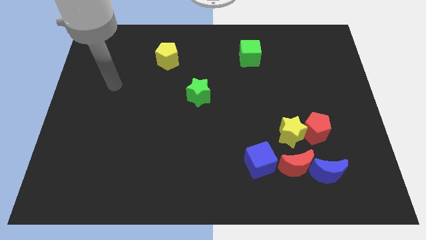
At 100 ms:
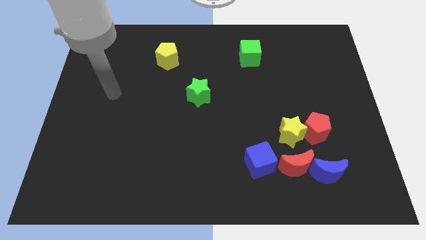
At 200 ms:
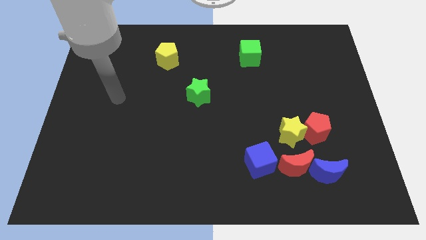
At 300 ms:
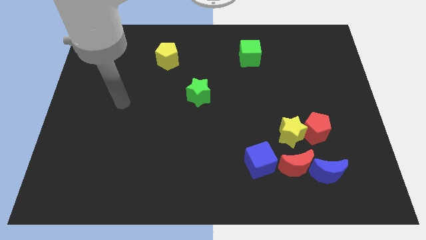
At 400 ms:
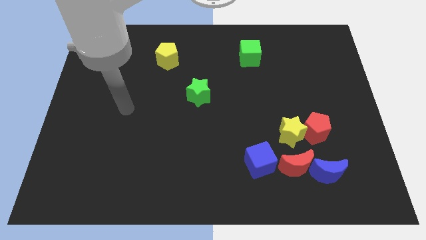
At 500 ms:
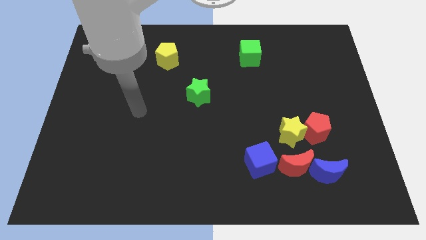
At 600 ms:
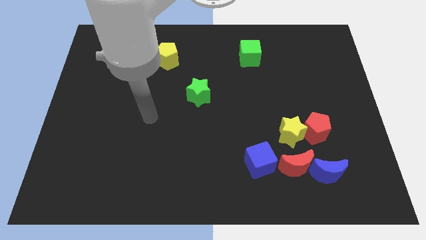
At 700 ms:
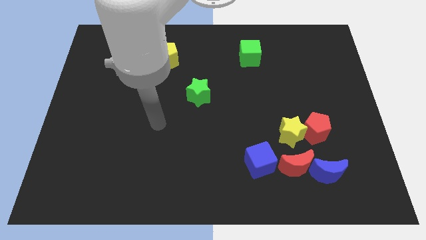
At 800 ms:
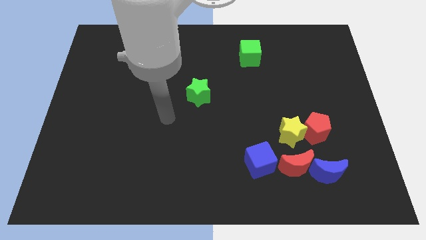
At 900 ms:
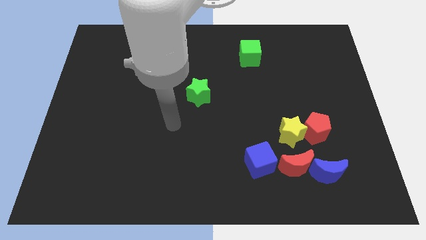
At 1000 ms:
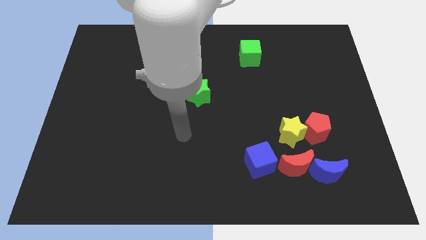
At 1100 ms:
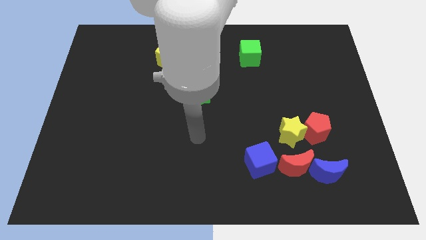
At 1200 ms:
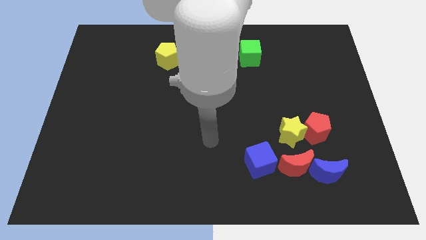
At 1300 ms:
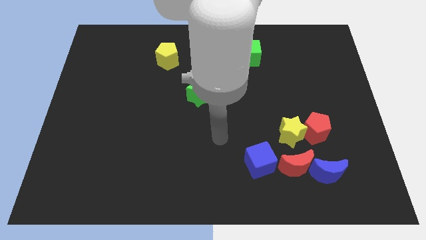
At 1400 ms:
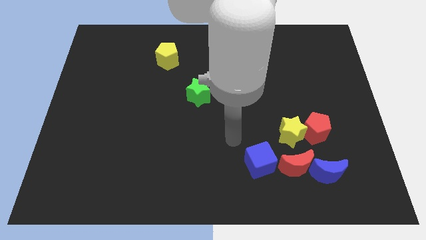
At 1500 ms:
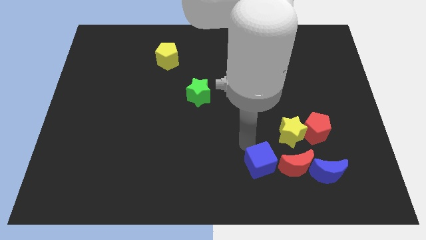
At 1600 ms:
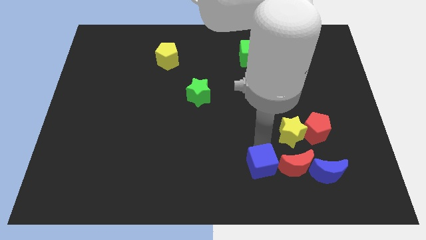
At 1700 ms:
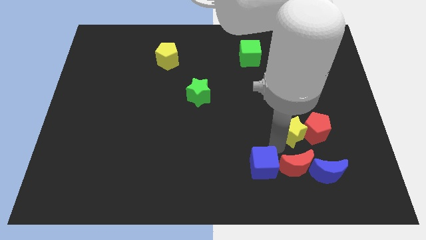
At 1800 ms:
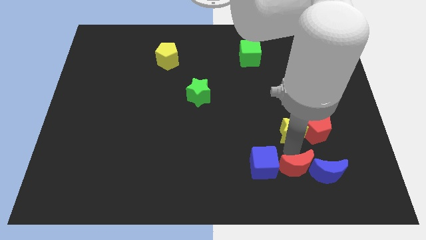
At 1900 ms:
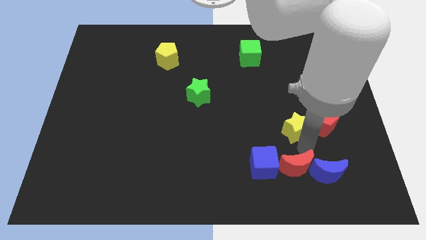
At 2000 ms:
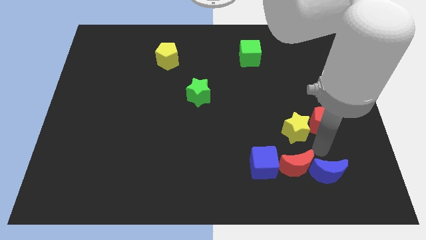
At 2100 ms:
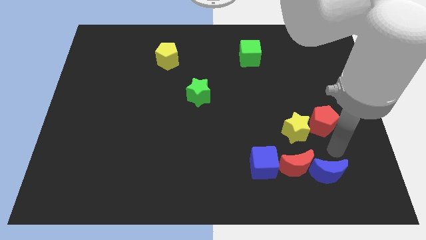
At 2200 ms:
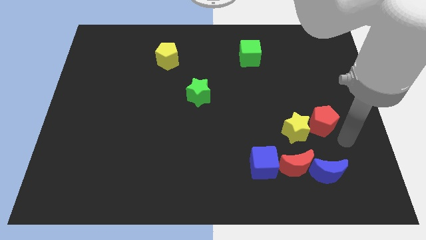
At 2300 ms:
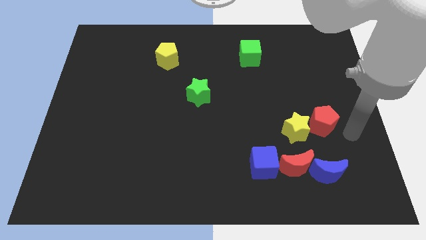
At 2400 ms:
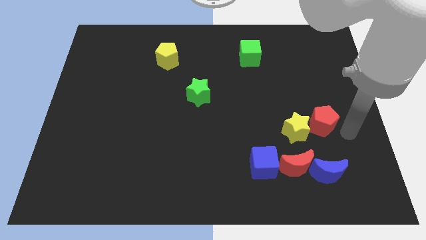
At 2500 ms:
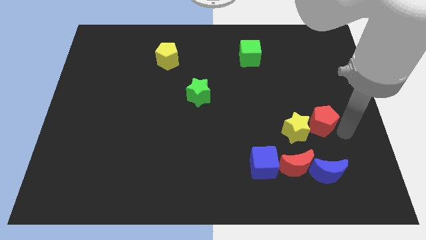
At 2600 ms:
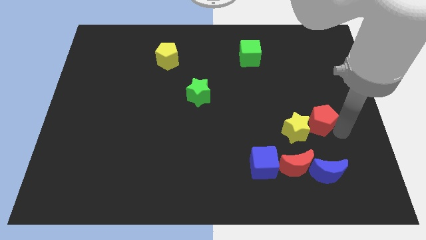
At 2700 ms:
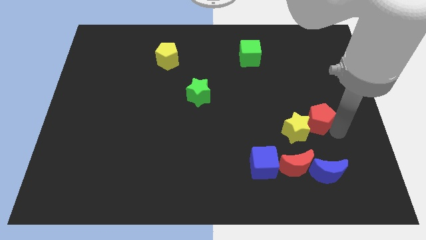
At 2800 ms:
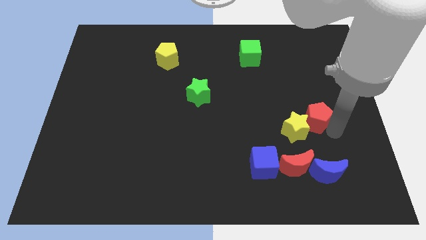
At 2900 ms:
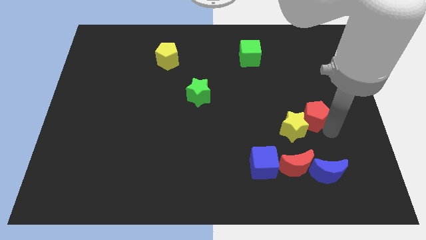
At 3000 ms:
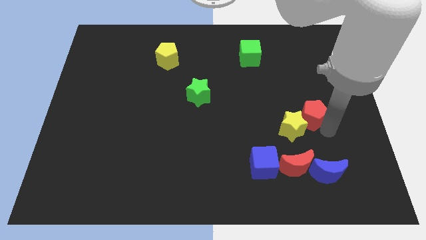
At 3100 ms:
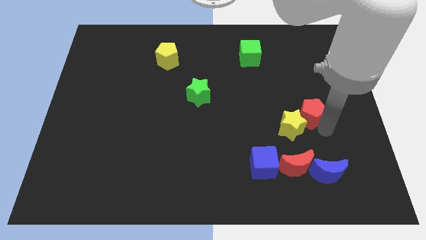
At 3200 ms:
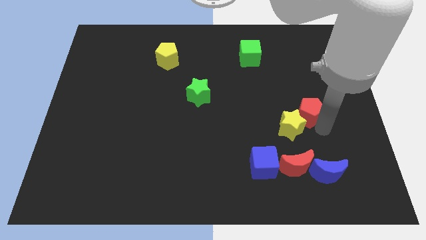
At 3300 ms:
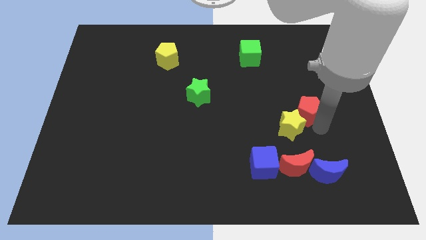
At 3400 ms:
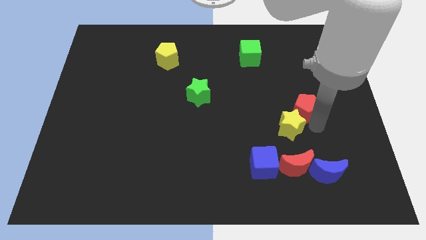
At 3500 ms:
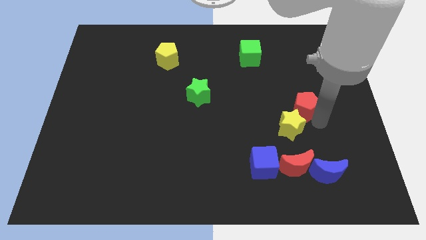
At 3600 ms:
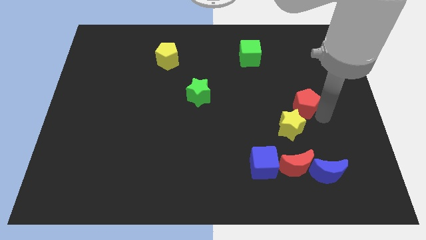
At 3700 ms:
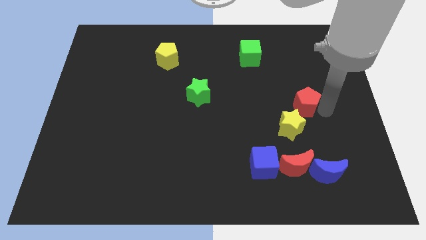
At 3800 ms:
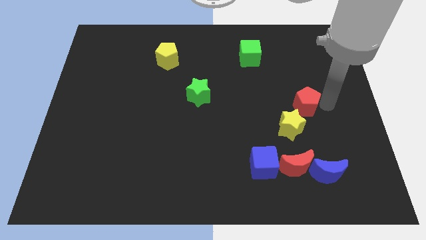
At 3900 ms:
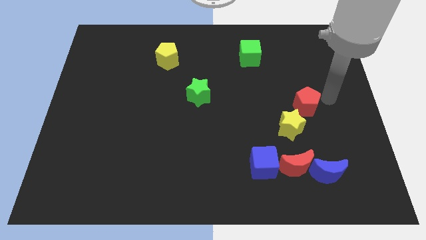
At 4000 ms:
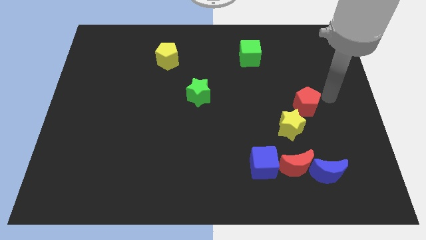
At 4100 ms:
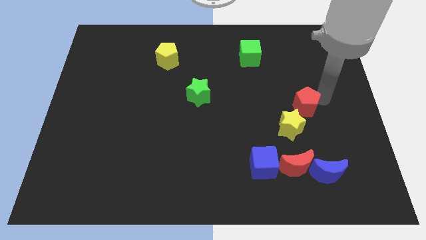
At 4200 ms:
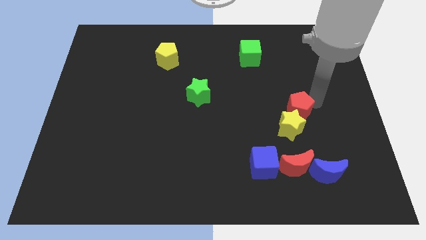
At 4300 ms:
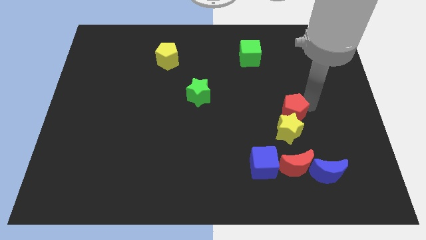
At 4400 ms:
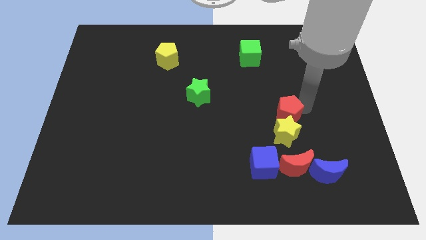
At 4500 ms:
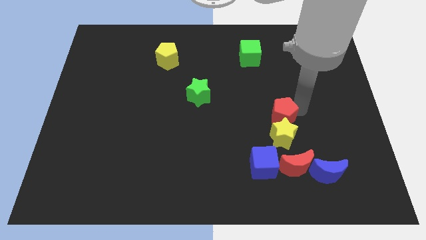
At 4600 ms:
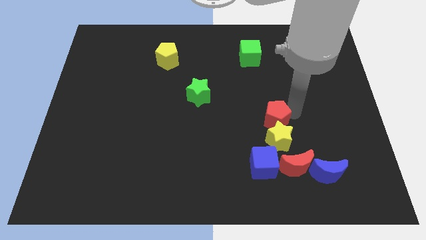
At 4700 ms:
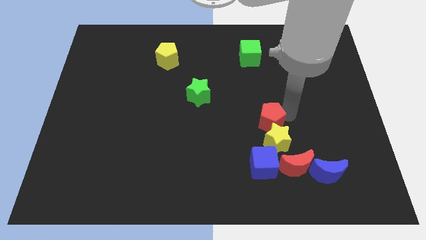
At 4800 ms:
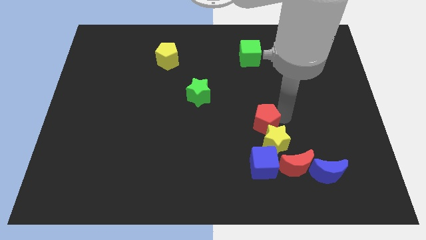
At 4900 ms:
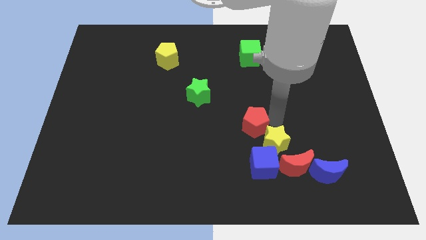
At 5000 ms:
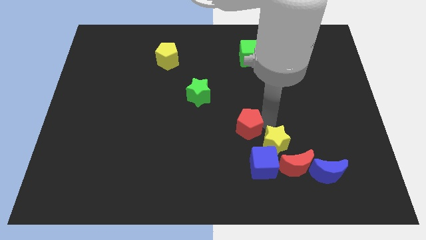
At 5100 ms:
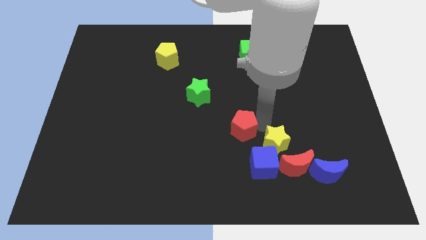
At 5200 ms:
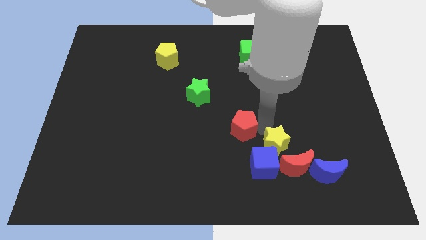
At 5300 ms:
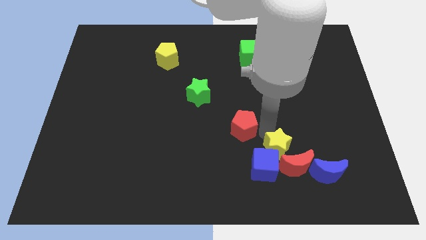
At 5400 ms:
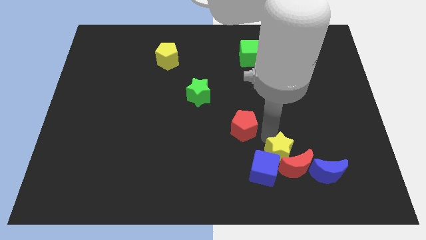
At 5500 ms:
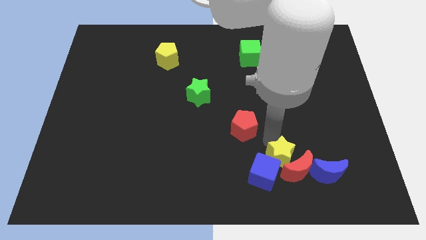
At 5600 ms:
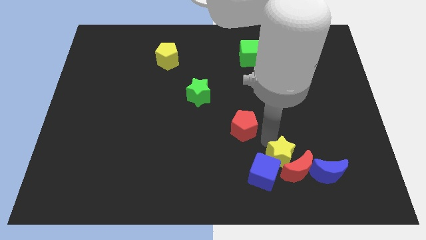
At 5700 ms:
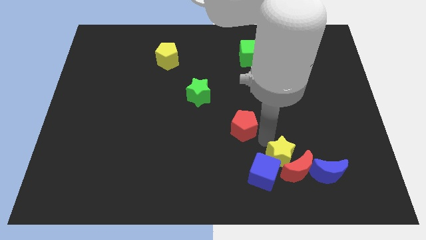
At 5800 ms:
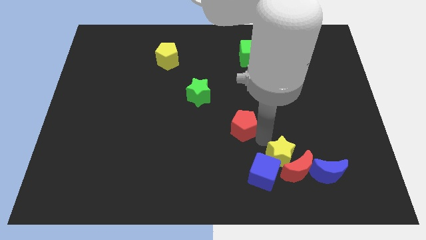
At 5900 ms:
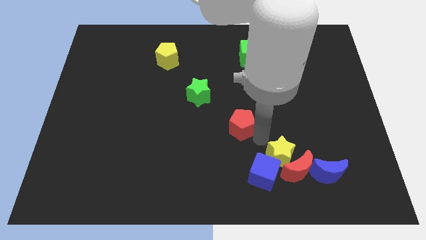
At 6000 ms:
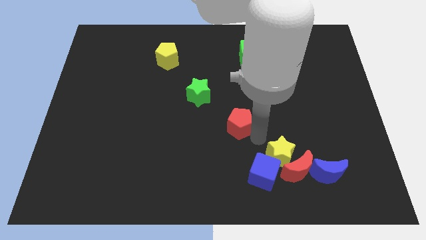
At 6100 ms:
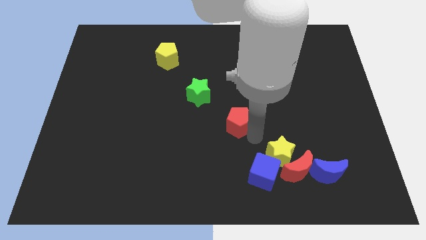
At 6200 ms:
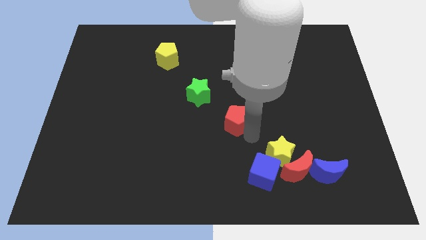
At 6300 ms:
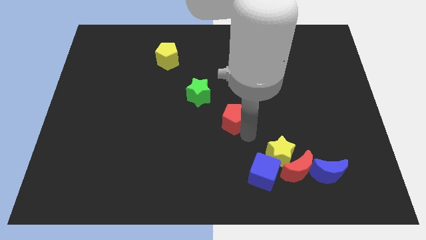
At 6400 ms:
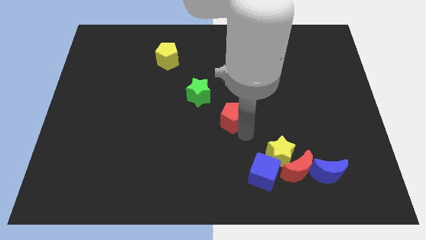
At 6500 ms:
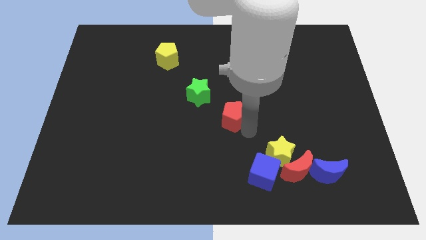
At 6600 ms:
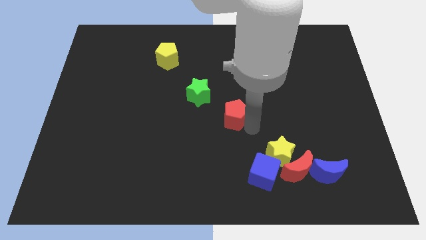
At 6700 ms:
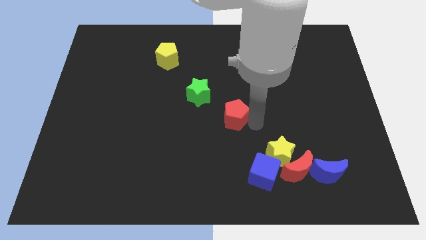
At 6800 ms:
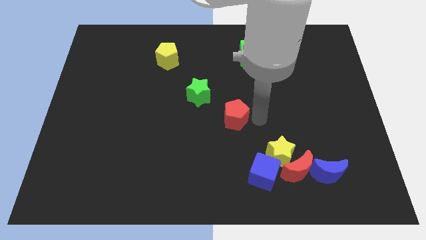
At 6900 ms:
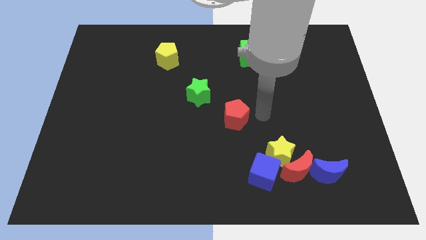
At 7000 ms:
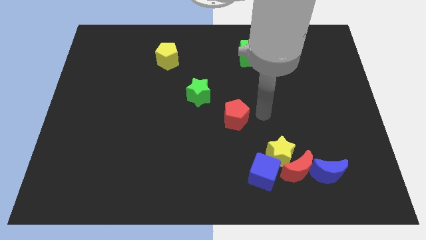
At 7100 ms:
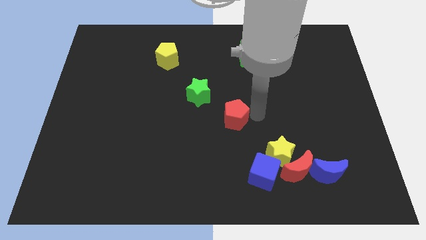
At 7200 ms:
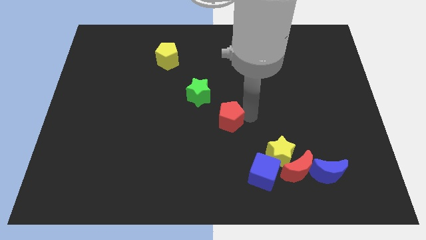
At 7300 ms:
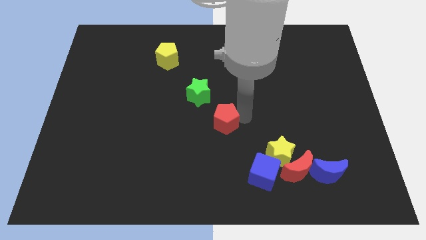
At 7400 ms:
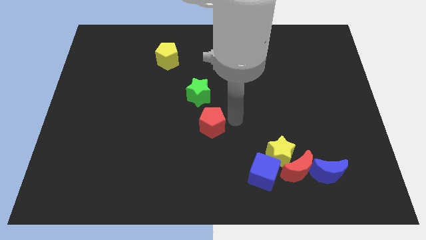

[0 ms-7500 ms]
slide the red pentagon to the left

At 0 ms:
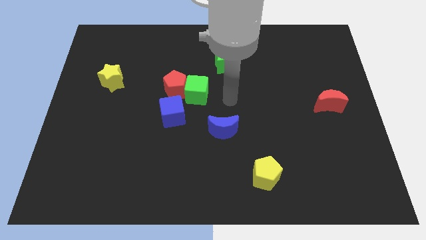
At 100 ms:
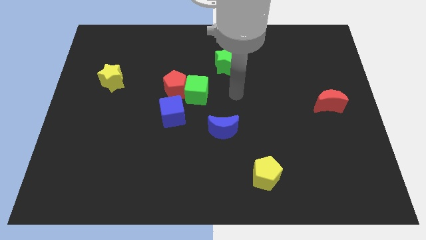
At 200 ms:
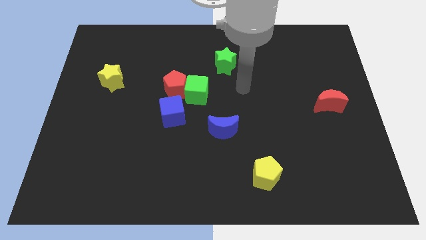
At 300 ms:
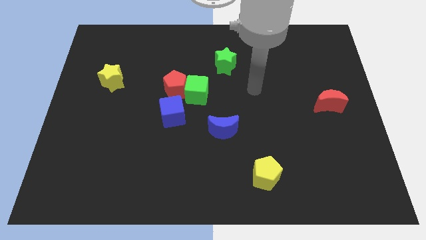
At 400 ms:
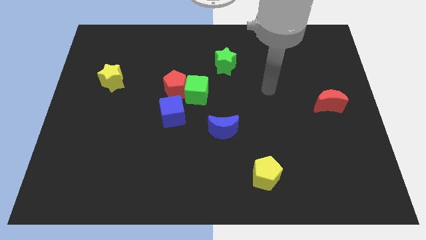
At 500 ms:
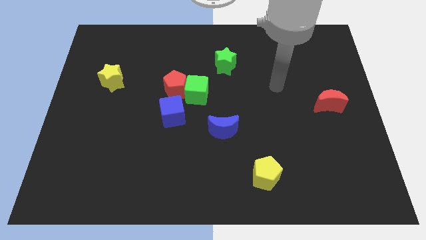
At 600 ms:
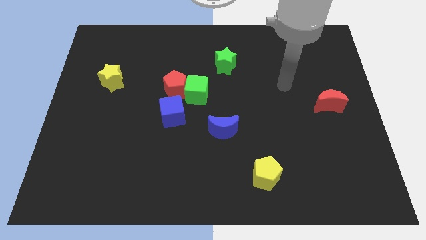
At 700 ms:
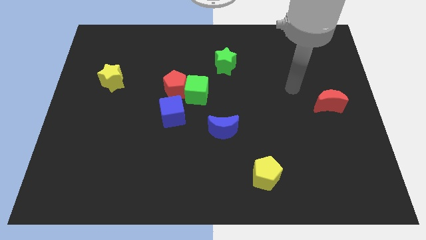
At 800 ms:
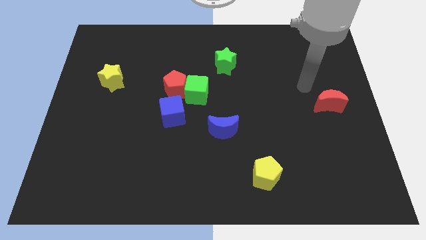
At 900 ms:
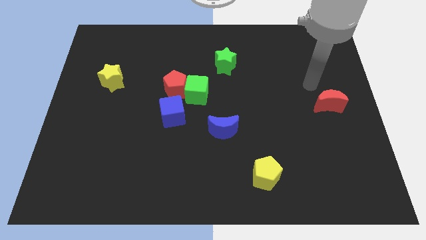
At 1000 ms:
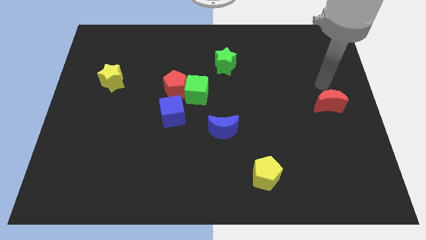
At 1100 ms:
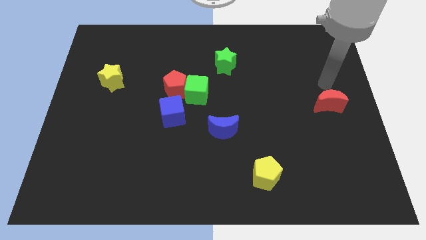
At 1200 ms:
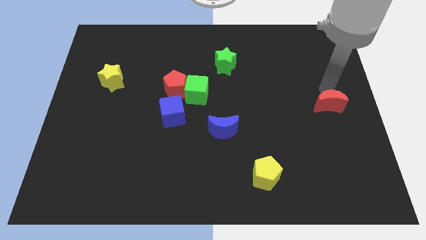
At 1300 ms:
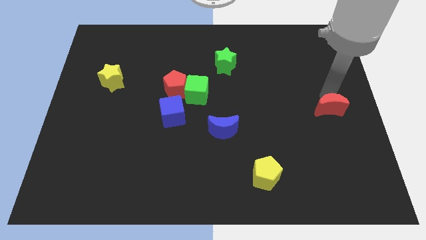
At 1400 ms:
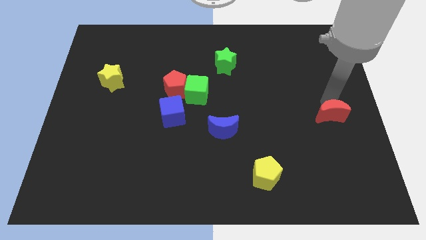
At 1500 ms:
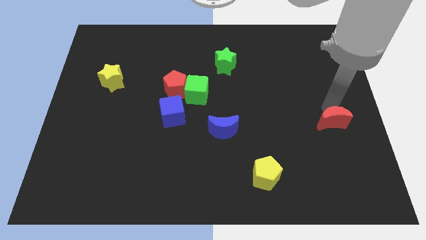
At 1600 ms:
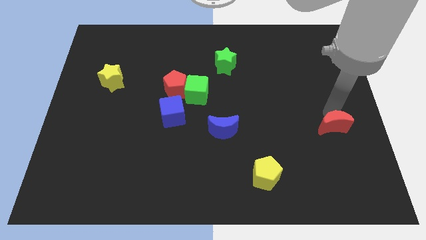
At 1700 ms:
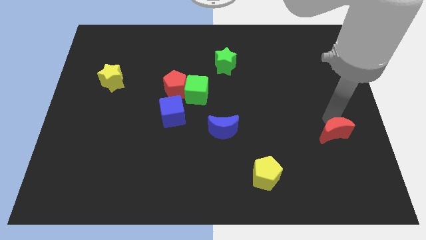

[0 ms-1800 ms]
move the red moon a little bit downwards
